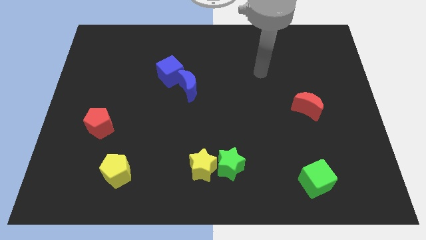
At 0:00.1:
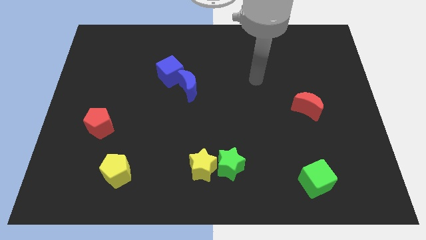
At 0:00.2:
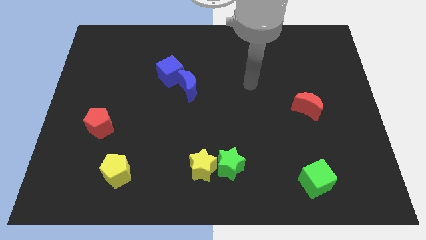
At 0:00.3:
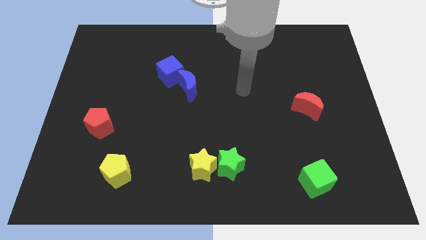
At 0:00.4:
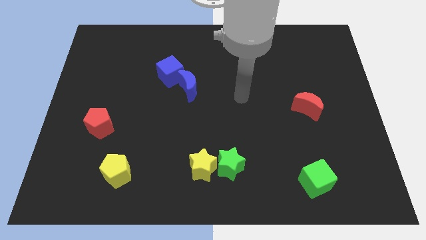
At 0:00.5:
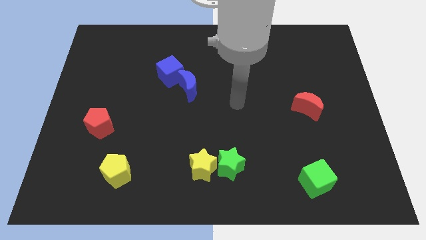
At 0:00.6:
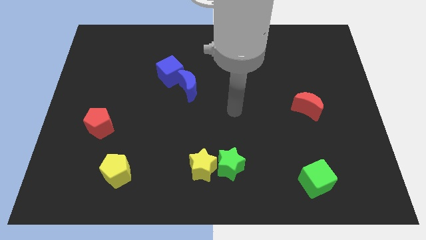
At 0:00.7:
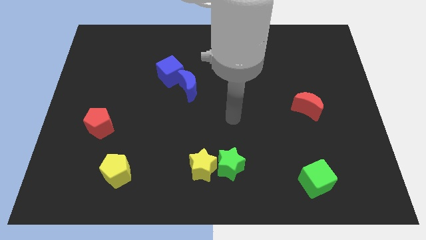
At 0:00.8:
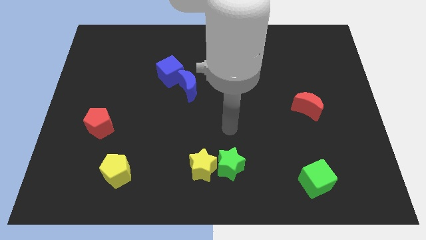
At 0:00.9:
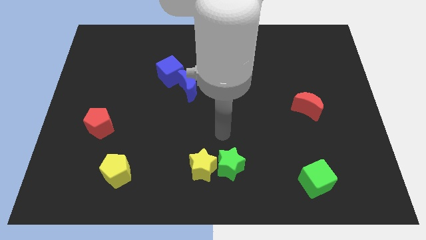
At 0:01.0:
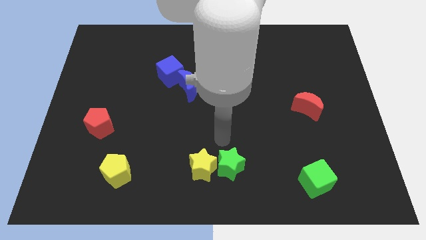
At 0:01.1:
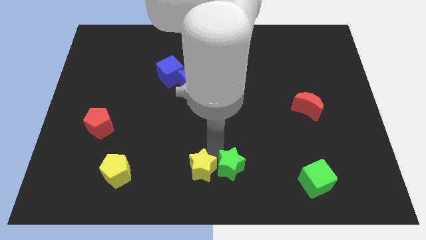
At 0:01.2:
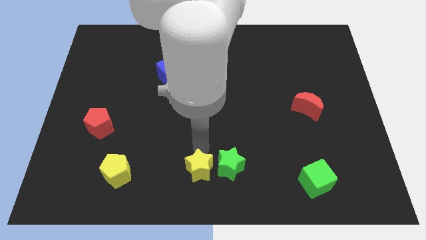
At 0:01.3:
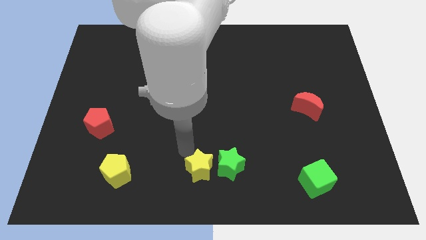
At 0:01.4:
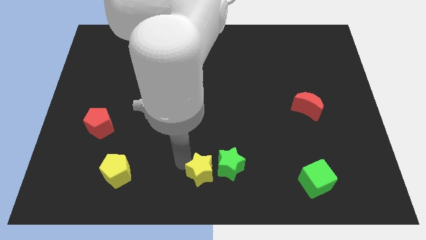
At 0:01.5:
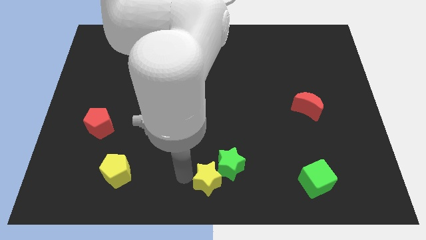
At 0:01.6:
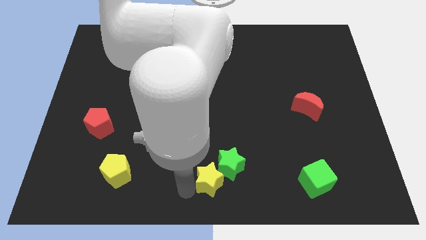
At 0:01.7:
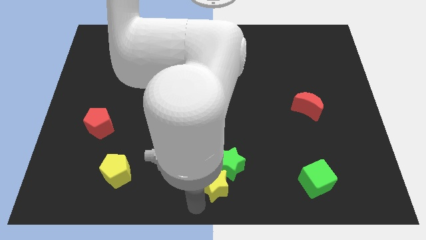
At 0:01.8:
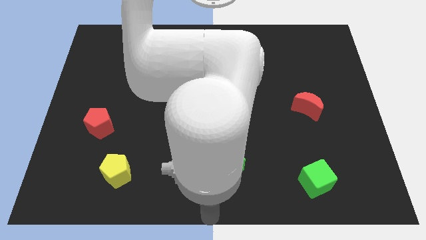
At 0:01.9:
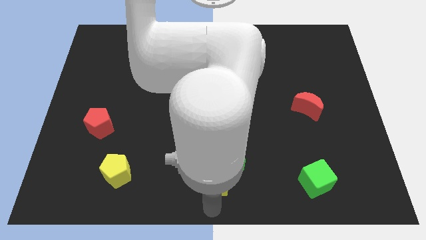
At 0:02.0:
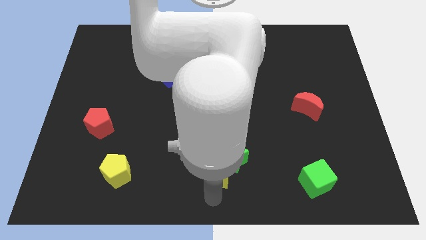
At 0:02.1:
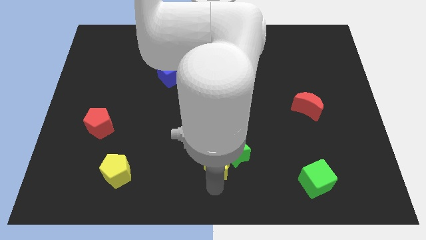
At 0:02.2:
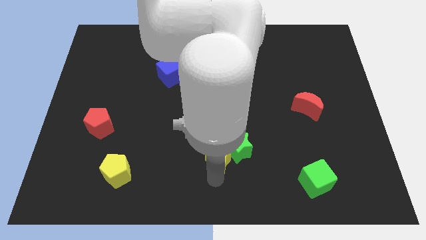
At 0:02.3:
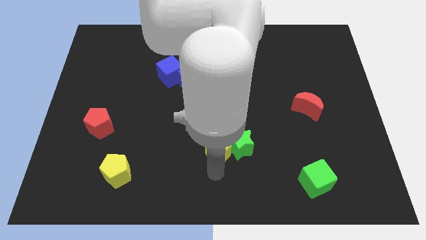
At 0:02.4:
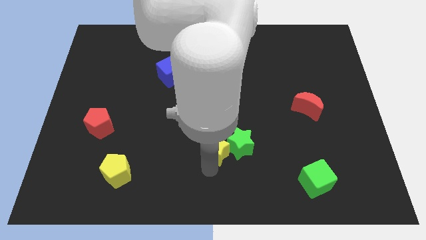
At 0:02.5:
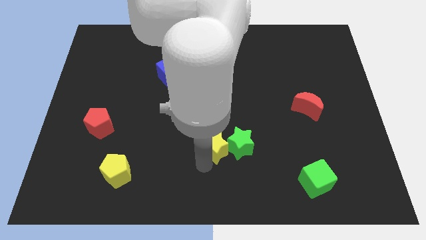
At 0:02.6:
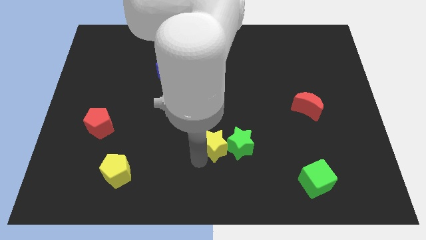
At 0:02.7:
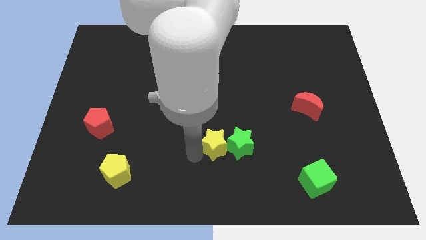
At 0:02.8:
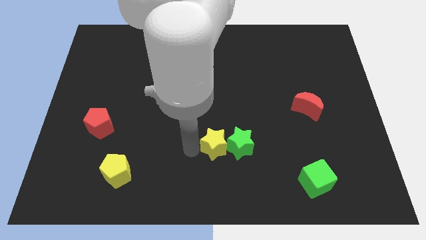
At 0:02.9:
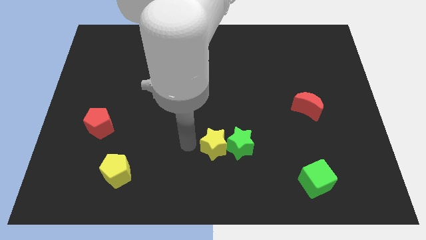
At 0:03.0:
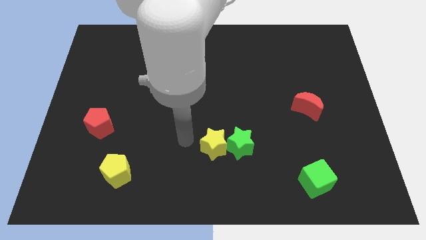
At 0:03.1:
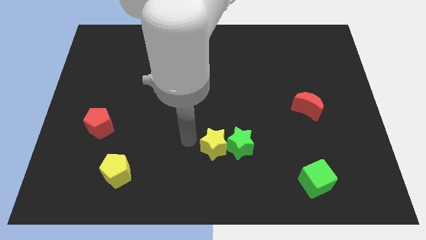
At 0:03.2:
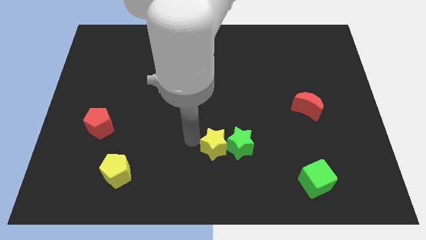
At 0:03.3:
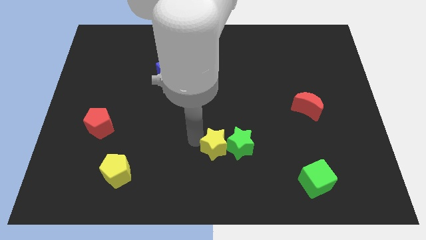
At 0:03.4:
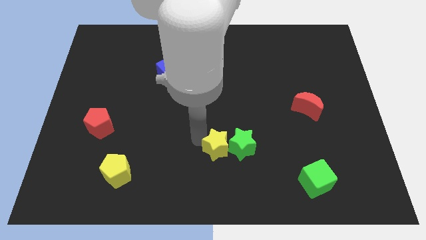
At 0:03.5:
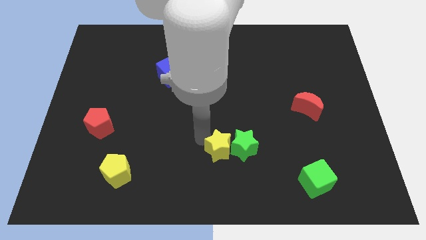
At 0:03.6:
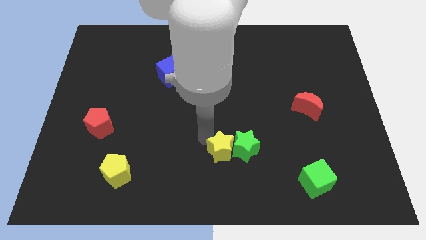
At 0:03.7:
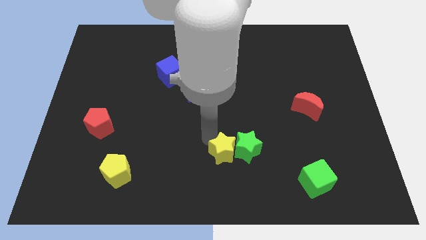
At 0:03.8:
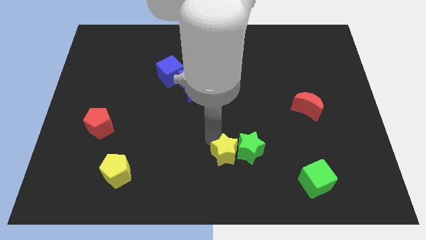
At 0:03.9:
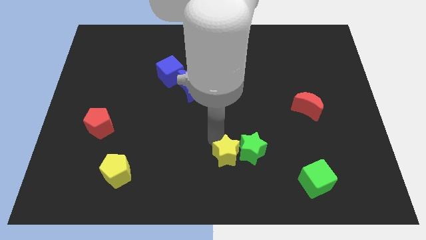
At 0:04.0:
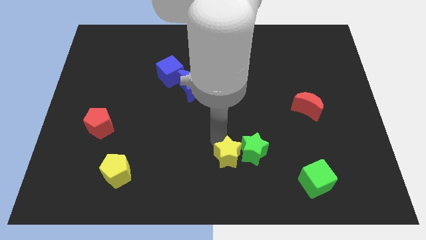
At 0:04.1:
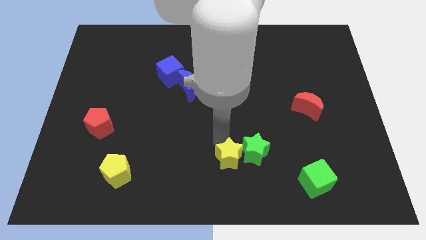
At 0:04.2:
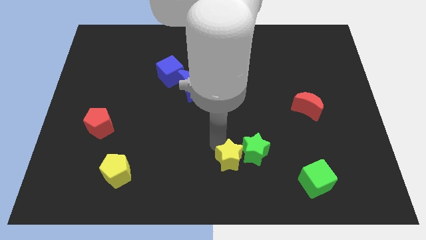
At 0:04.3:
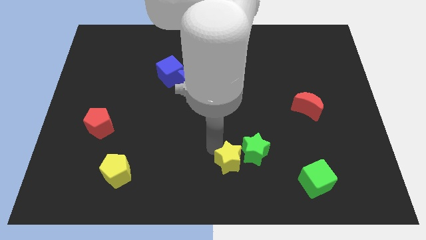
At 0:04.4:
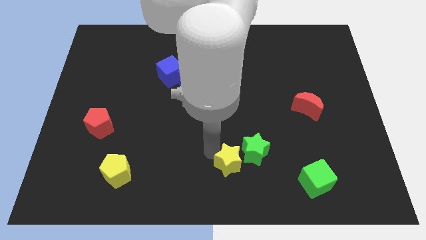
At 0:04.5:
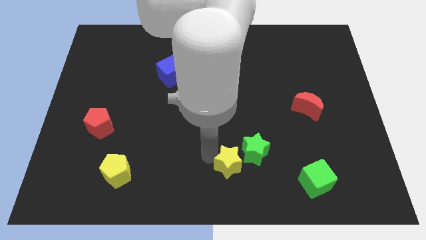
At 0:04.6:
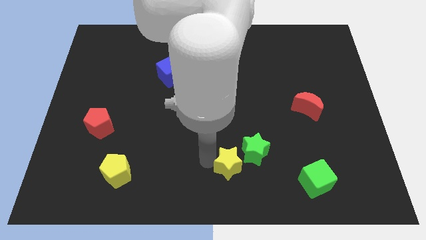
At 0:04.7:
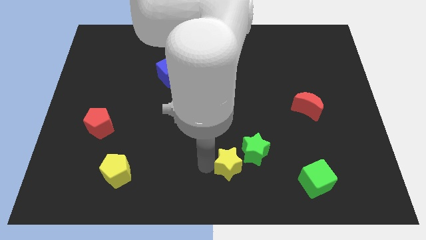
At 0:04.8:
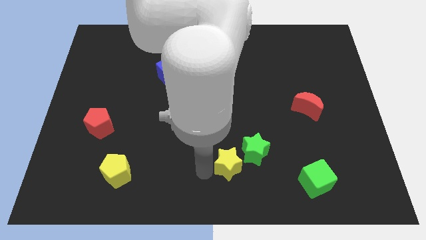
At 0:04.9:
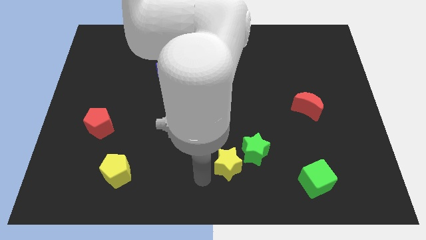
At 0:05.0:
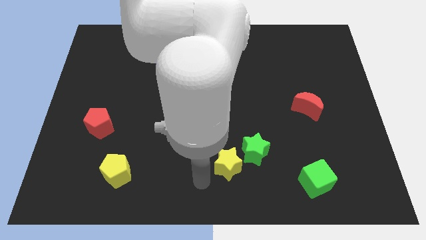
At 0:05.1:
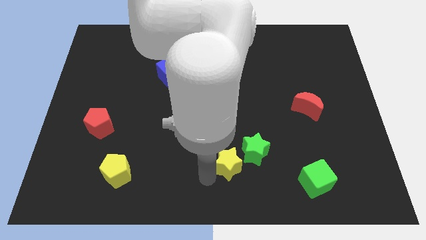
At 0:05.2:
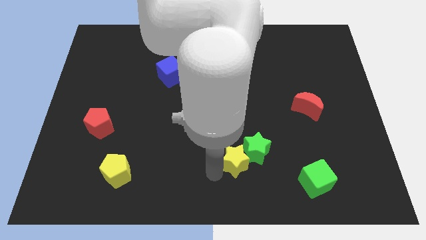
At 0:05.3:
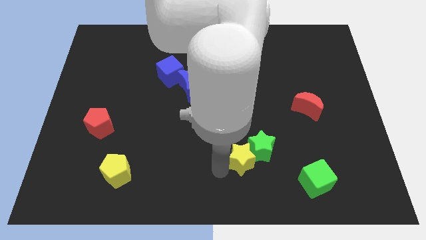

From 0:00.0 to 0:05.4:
move the yellow star slightly right

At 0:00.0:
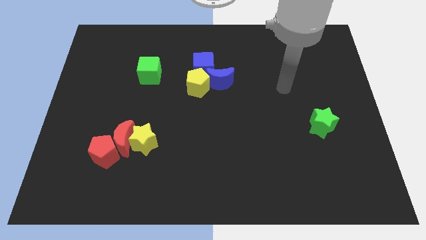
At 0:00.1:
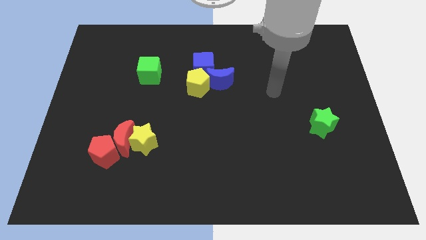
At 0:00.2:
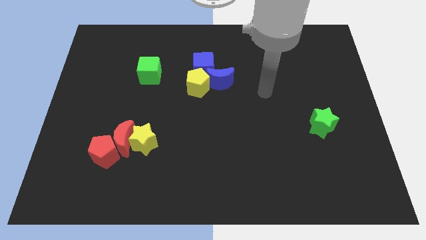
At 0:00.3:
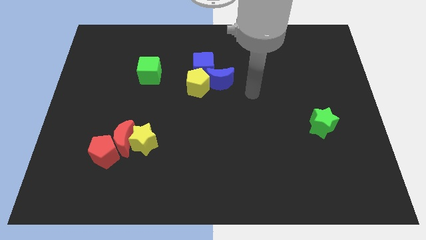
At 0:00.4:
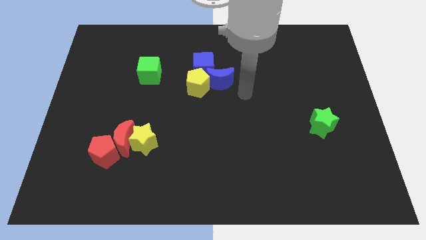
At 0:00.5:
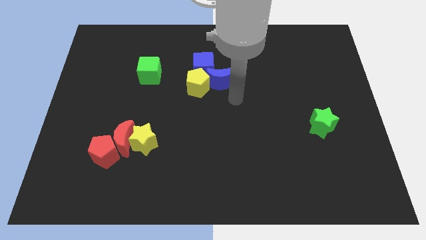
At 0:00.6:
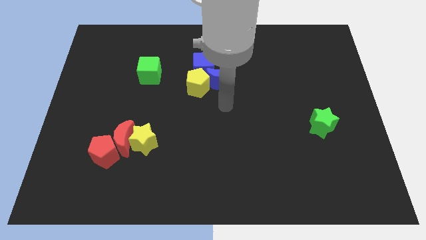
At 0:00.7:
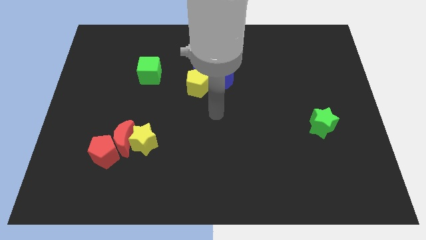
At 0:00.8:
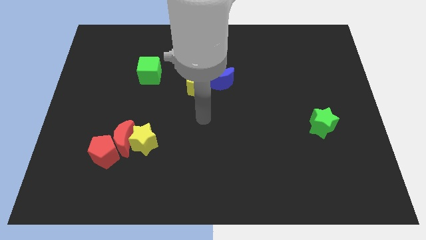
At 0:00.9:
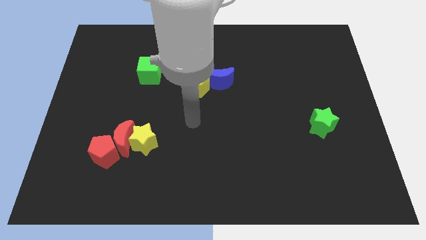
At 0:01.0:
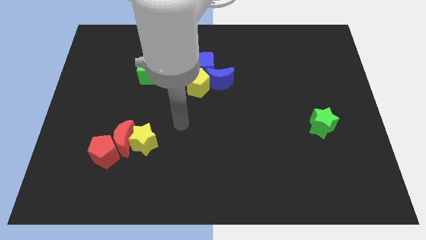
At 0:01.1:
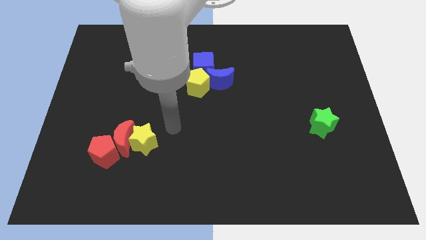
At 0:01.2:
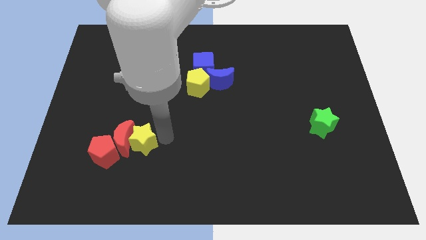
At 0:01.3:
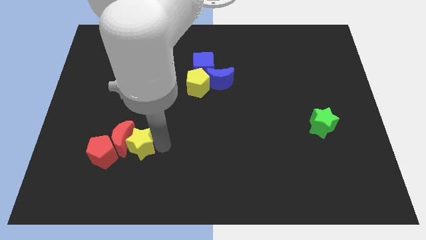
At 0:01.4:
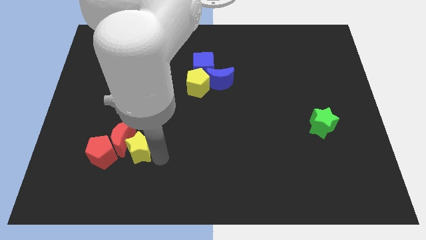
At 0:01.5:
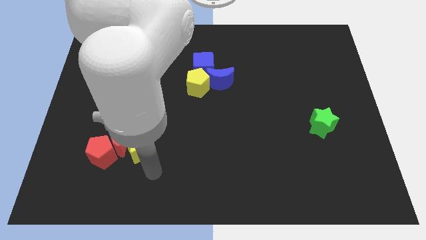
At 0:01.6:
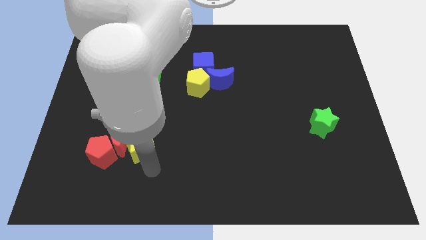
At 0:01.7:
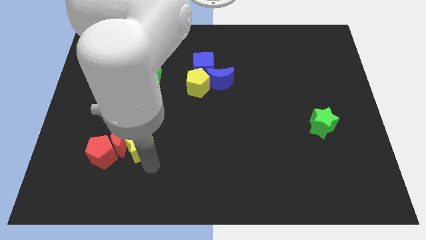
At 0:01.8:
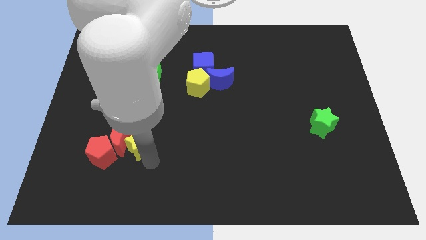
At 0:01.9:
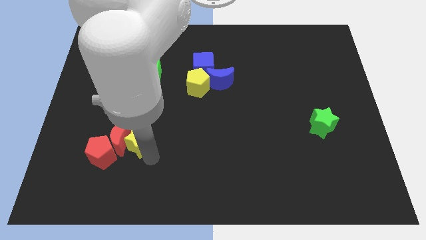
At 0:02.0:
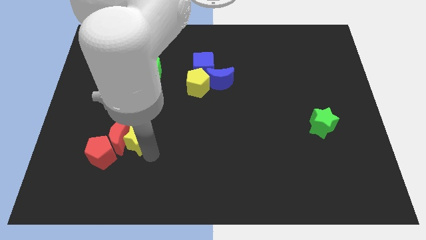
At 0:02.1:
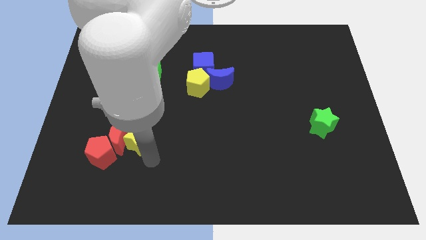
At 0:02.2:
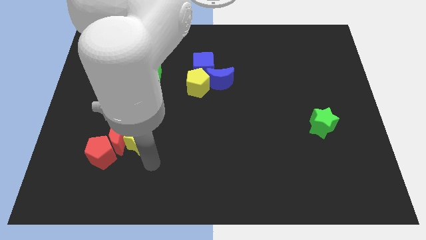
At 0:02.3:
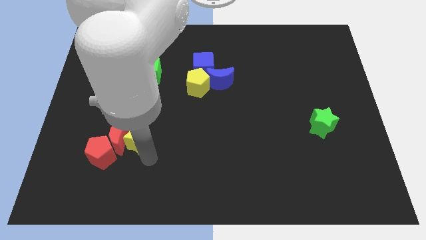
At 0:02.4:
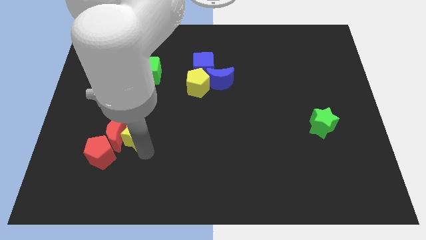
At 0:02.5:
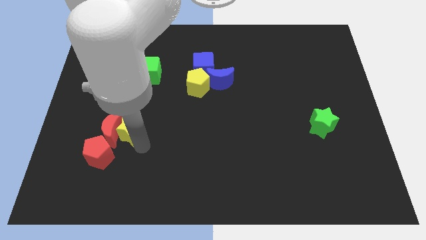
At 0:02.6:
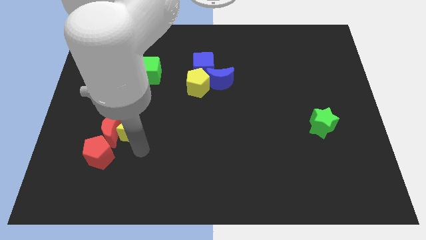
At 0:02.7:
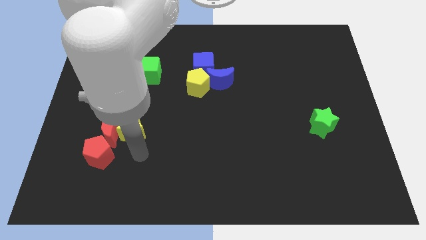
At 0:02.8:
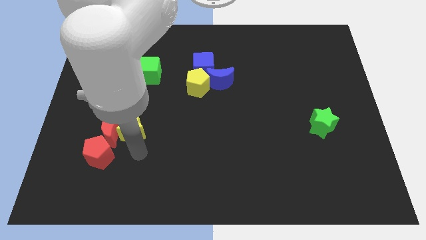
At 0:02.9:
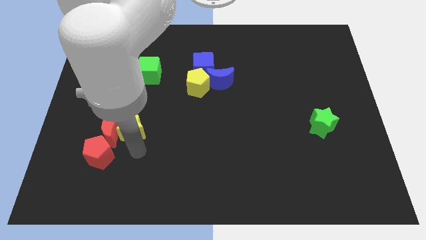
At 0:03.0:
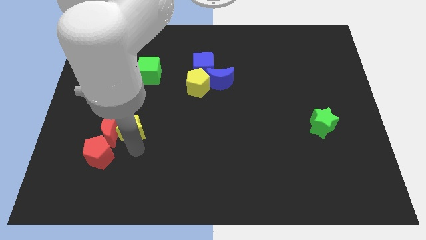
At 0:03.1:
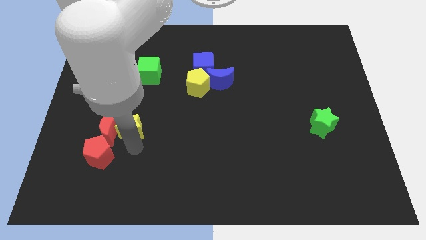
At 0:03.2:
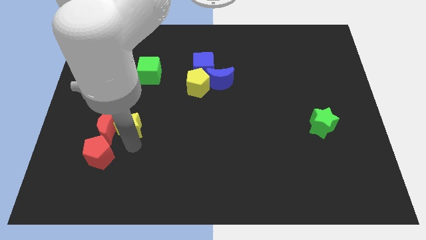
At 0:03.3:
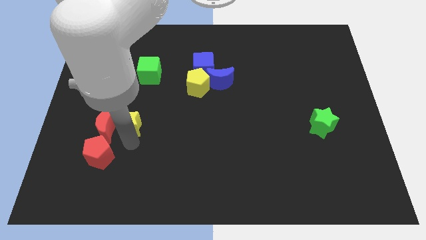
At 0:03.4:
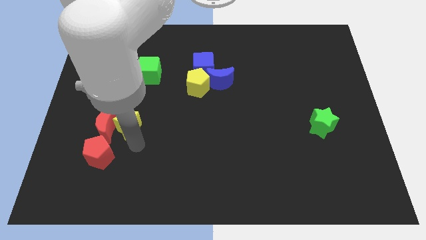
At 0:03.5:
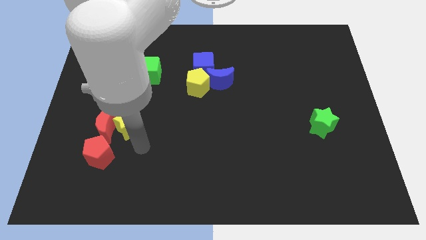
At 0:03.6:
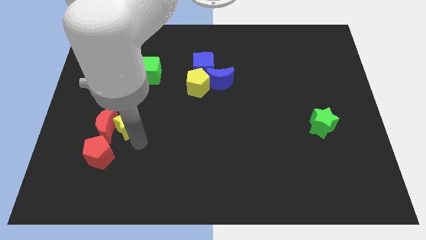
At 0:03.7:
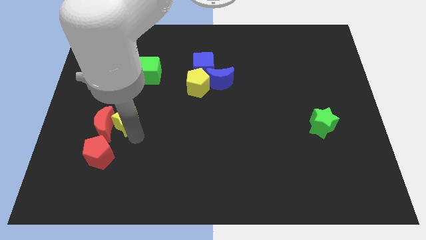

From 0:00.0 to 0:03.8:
push the yellow star a little bit diagonally upwards and left
